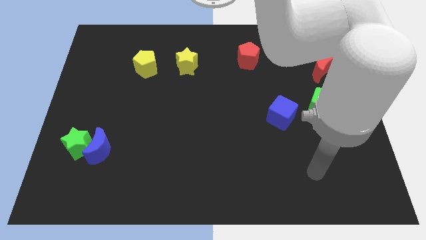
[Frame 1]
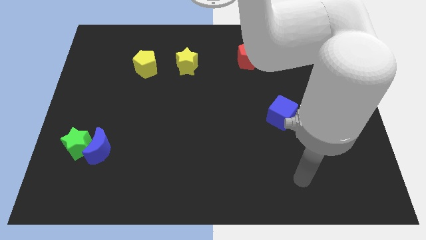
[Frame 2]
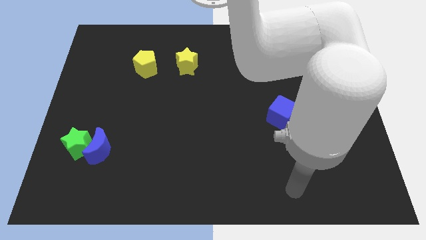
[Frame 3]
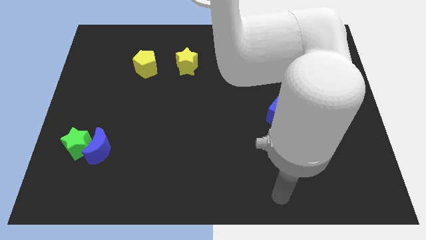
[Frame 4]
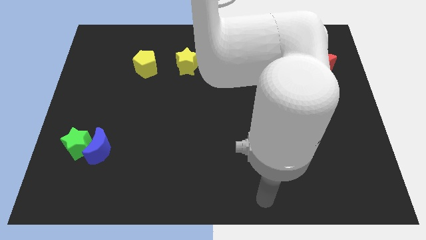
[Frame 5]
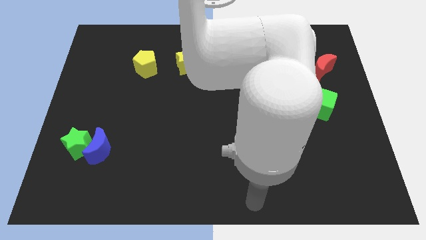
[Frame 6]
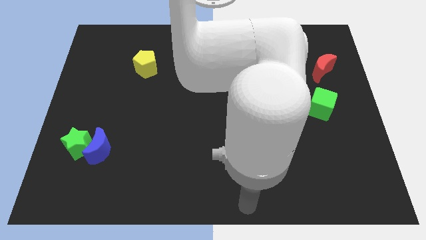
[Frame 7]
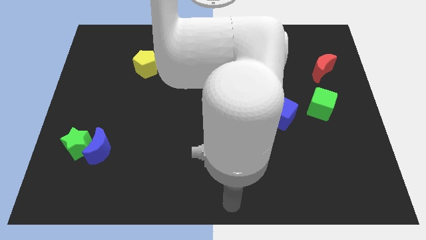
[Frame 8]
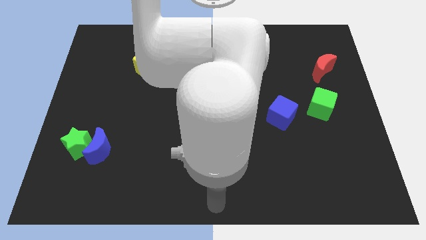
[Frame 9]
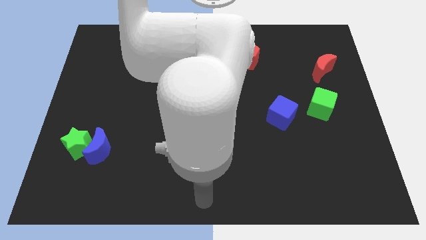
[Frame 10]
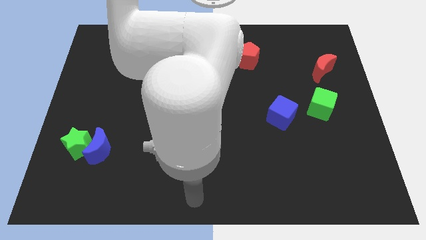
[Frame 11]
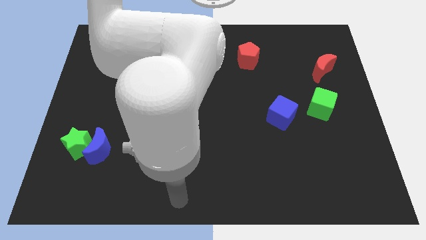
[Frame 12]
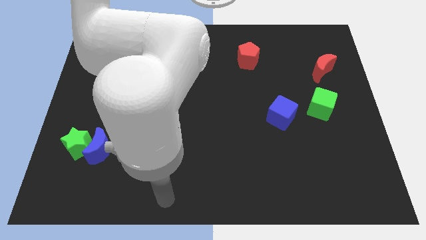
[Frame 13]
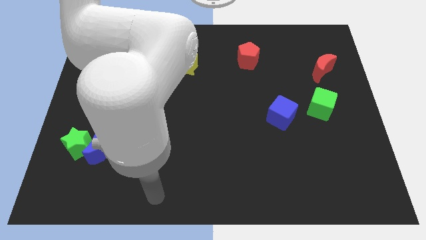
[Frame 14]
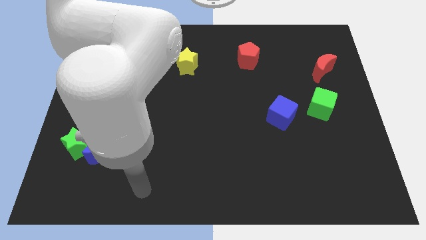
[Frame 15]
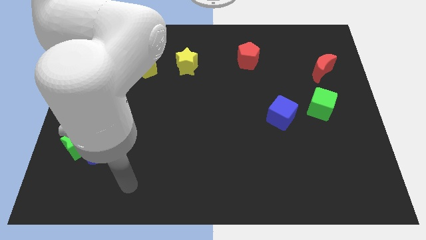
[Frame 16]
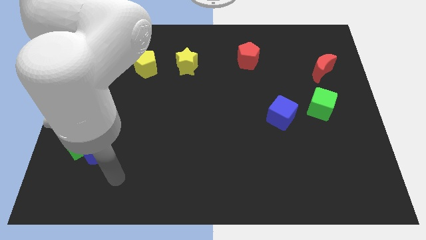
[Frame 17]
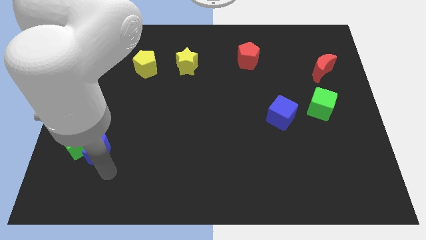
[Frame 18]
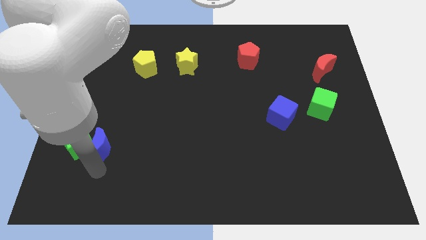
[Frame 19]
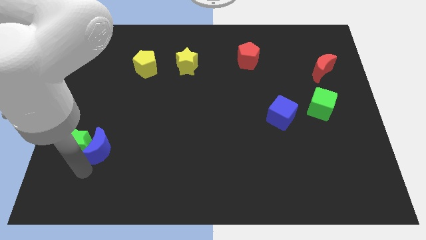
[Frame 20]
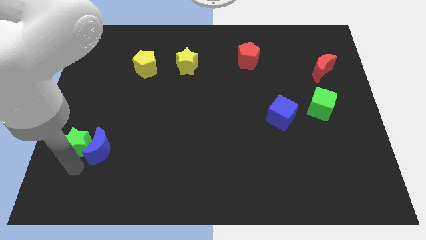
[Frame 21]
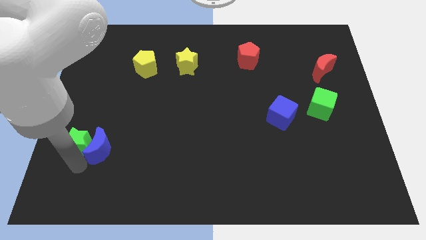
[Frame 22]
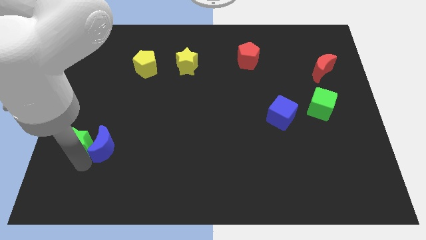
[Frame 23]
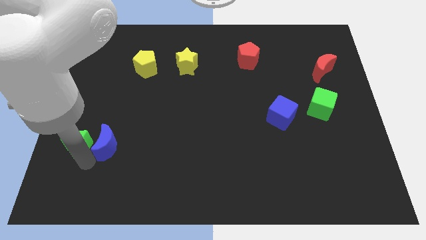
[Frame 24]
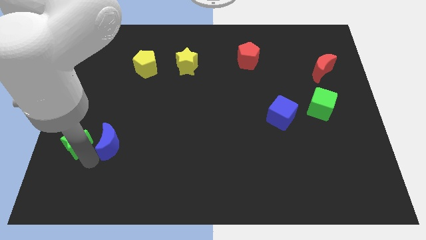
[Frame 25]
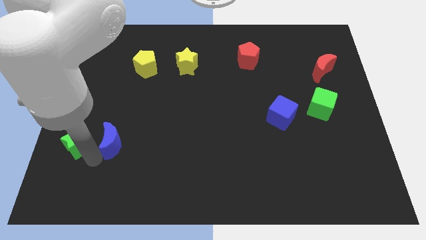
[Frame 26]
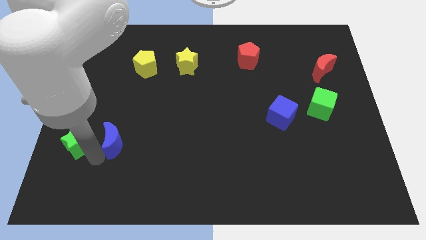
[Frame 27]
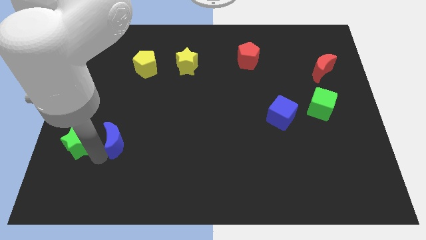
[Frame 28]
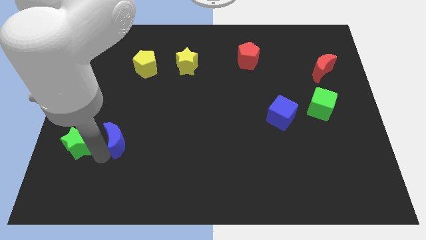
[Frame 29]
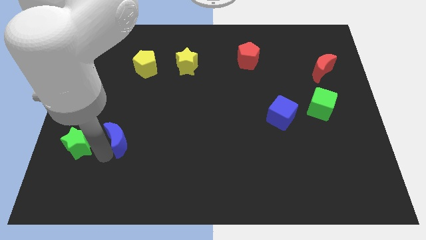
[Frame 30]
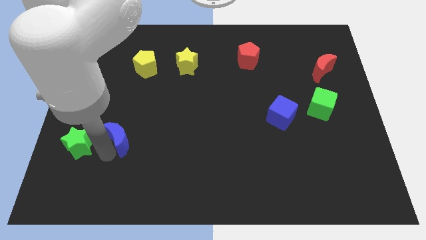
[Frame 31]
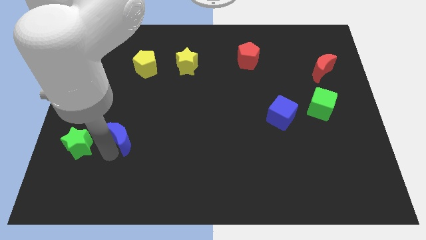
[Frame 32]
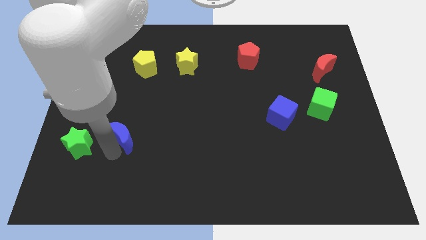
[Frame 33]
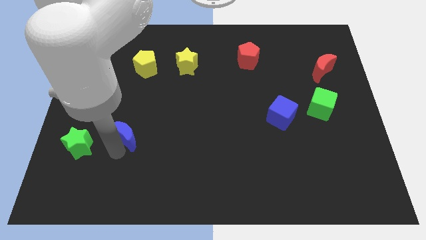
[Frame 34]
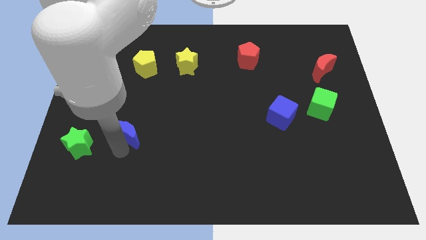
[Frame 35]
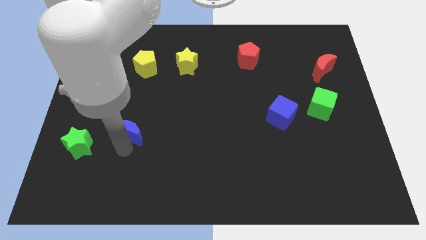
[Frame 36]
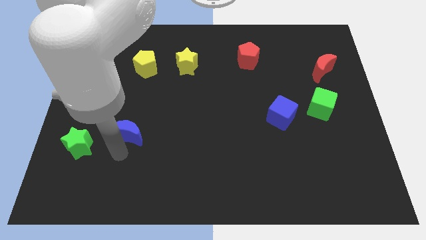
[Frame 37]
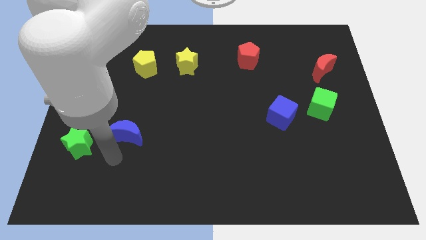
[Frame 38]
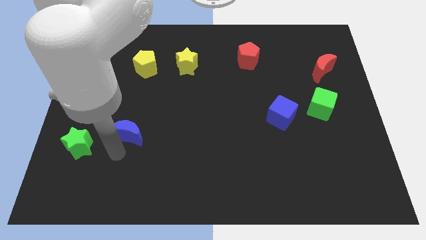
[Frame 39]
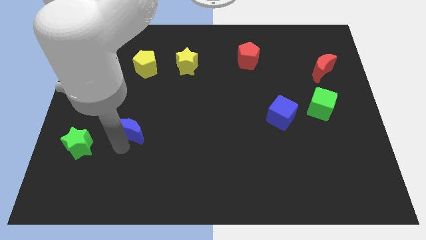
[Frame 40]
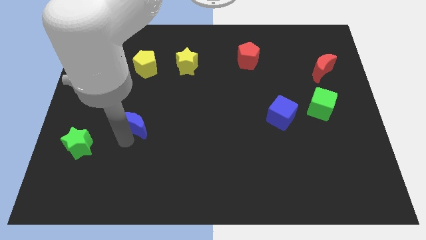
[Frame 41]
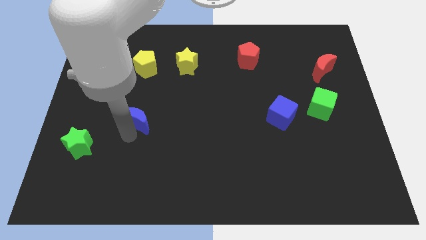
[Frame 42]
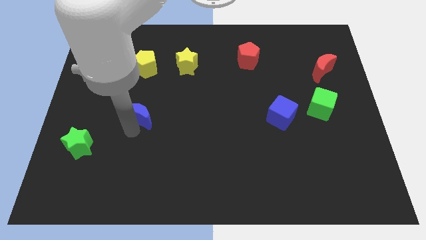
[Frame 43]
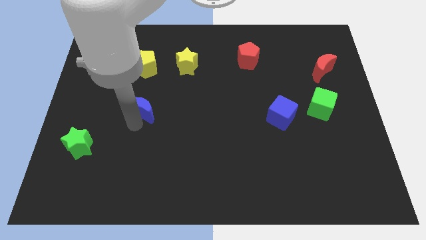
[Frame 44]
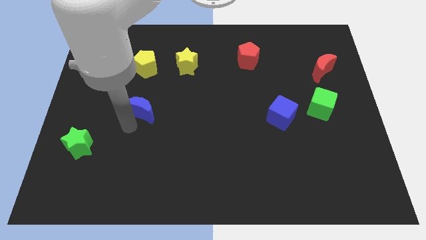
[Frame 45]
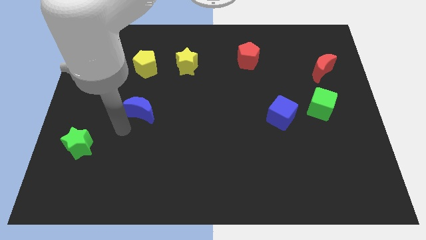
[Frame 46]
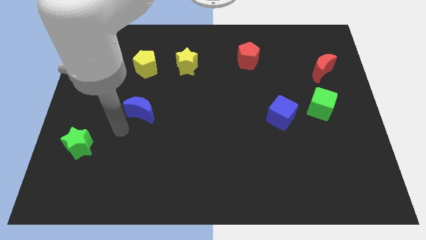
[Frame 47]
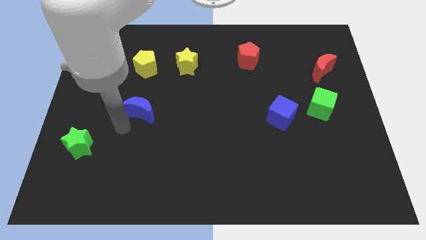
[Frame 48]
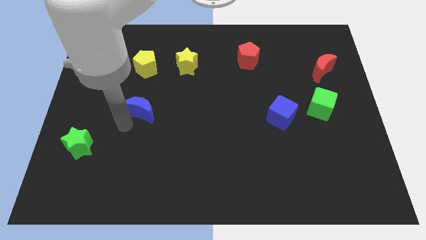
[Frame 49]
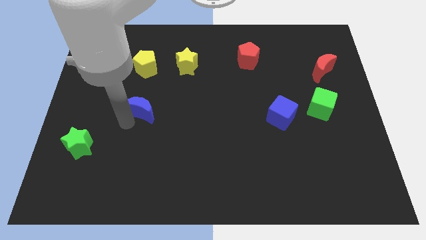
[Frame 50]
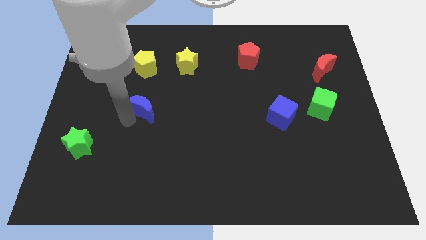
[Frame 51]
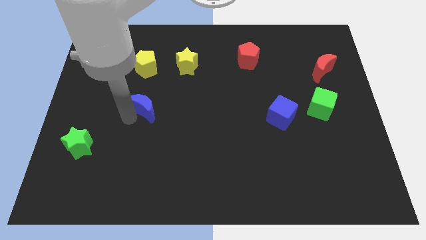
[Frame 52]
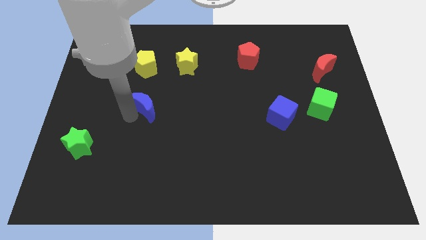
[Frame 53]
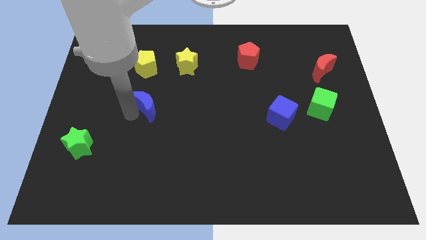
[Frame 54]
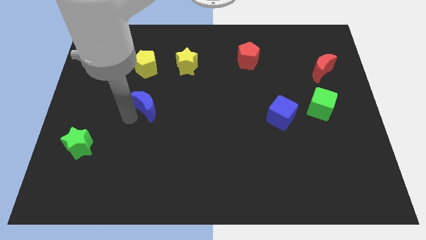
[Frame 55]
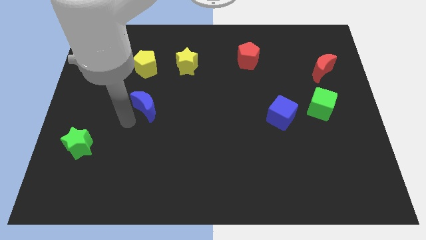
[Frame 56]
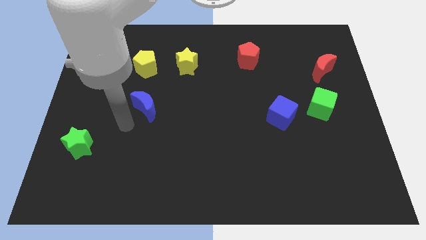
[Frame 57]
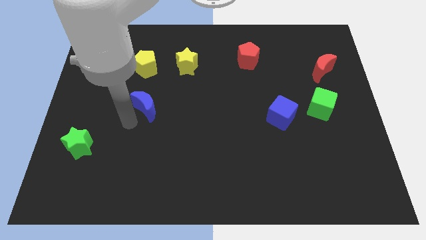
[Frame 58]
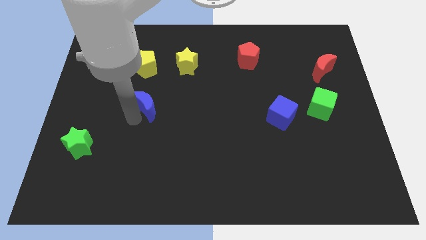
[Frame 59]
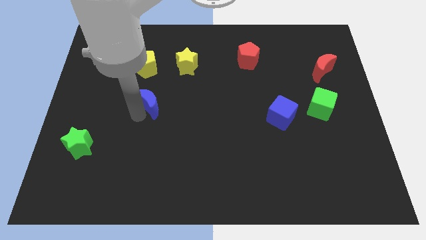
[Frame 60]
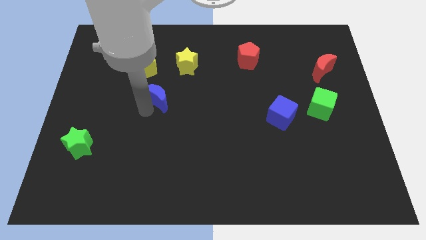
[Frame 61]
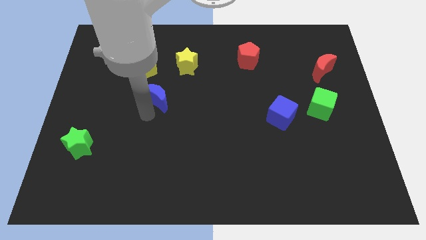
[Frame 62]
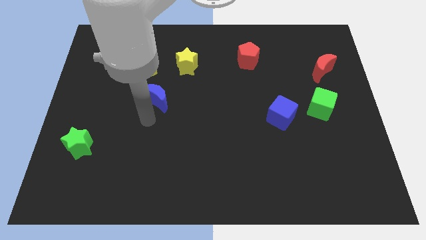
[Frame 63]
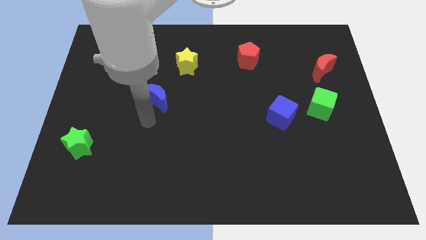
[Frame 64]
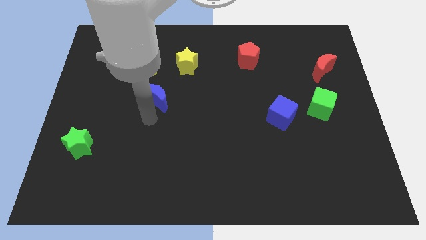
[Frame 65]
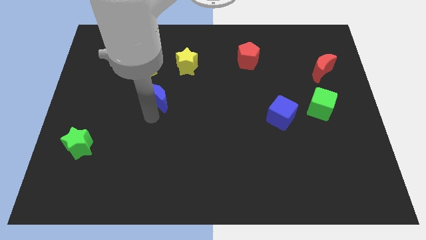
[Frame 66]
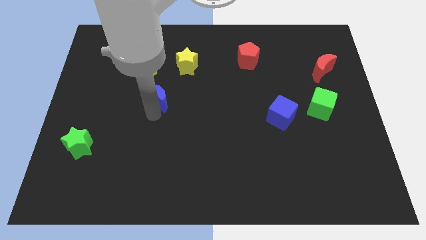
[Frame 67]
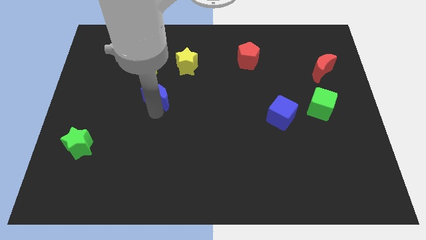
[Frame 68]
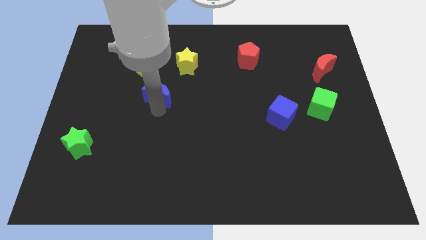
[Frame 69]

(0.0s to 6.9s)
slide the blue moon to the bottom left of the yellow star
